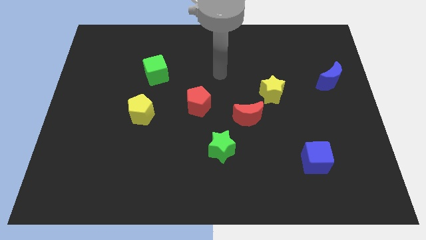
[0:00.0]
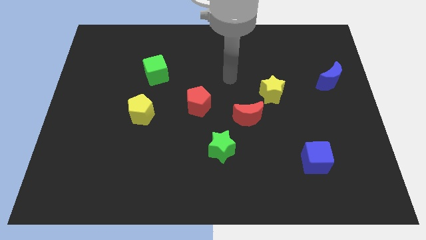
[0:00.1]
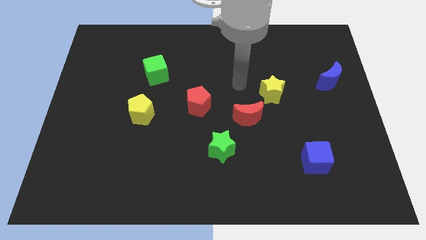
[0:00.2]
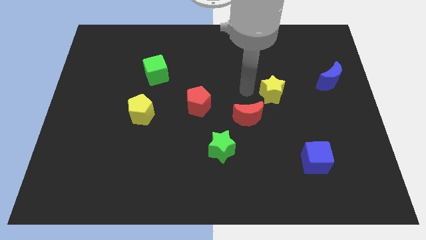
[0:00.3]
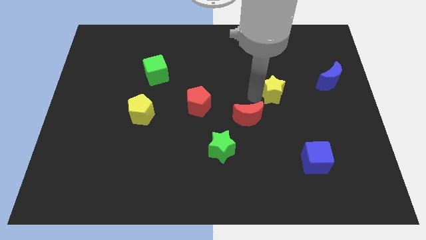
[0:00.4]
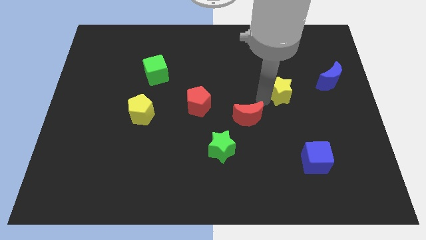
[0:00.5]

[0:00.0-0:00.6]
move the red moon away from the yellow star

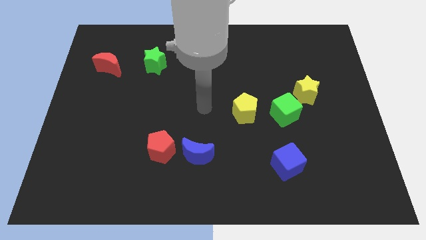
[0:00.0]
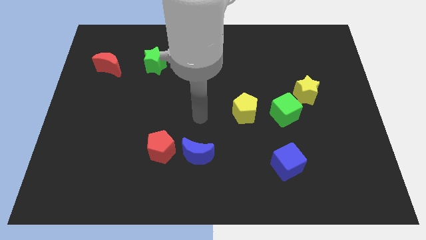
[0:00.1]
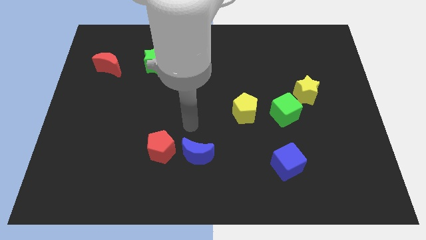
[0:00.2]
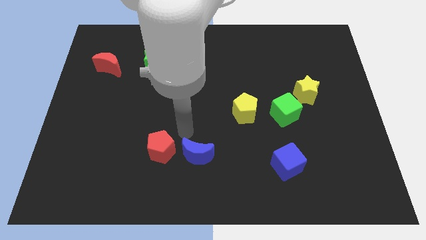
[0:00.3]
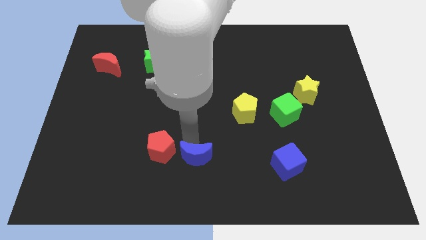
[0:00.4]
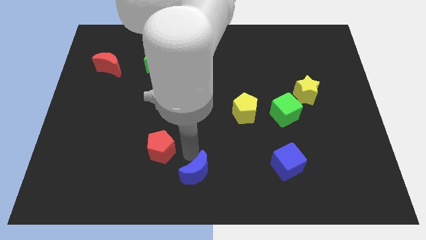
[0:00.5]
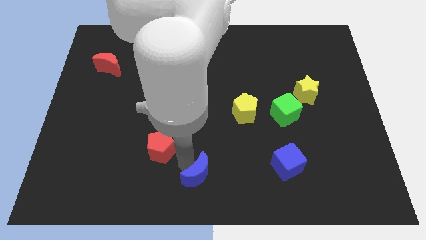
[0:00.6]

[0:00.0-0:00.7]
move the red pentagon away from the blue moon

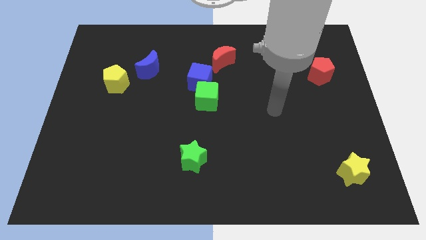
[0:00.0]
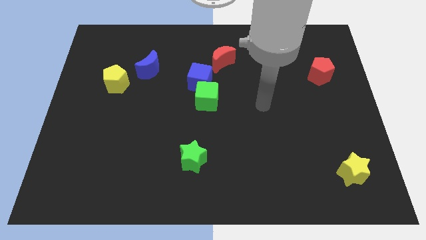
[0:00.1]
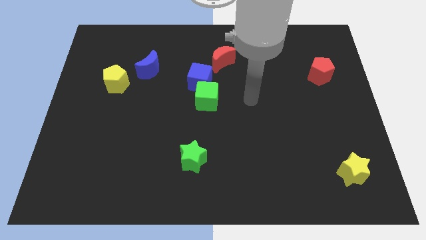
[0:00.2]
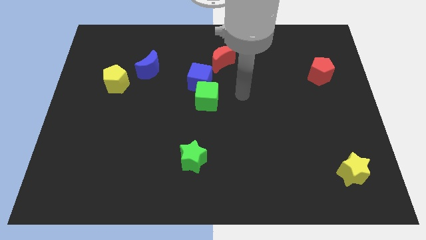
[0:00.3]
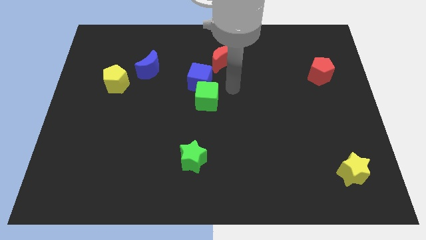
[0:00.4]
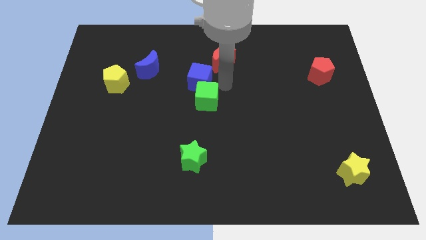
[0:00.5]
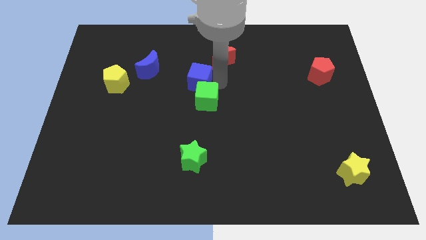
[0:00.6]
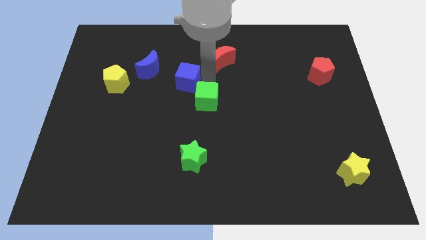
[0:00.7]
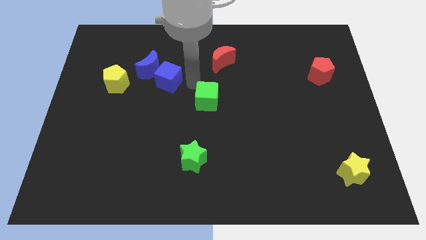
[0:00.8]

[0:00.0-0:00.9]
move the green cube away from the blue cube

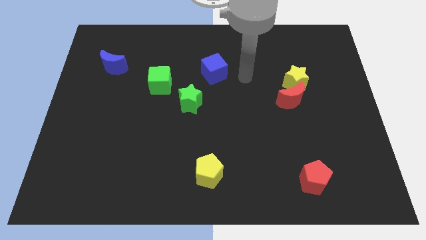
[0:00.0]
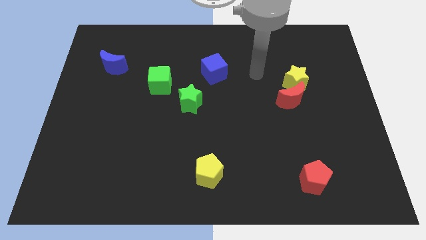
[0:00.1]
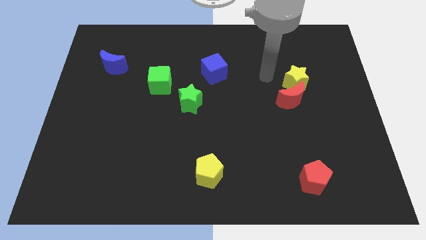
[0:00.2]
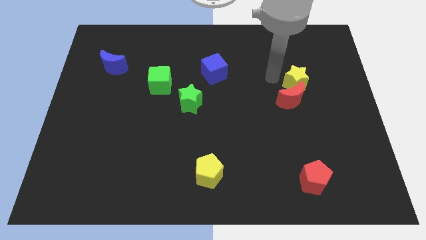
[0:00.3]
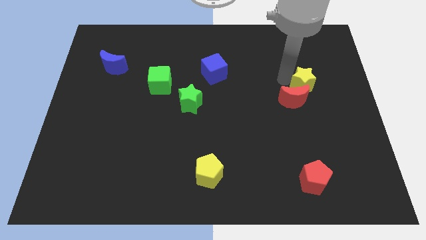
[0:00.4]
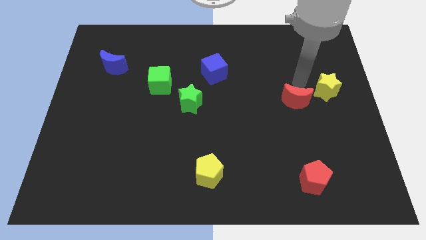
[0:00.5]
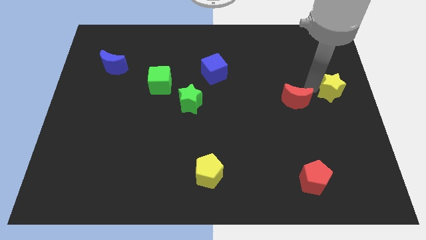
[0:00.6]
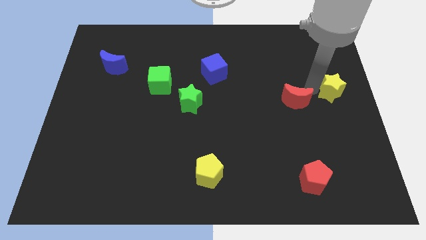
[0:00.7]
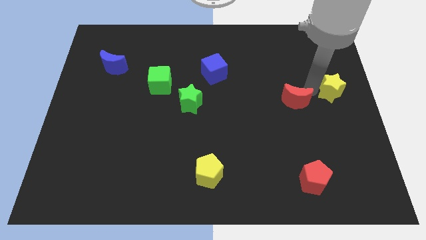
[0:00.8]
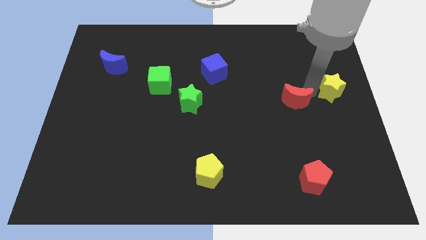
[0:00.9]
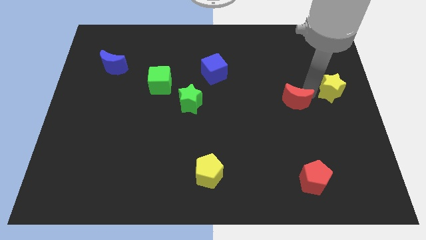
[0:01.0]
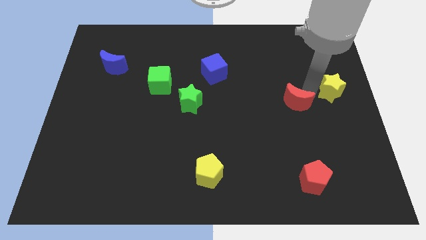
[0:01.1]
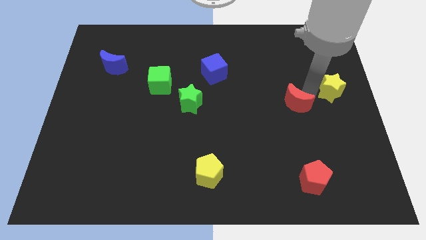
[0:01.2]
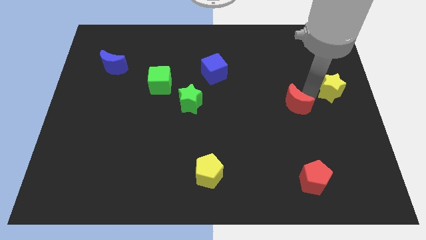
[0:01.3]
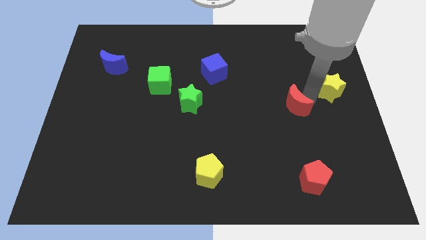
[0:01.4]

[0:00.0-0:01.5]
pull the red moon apart from the yellow star

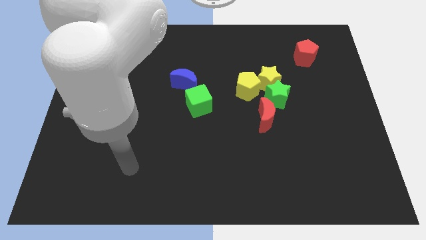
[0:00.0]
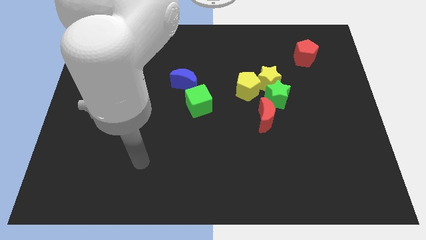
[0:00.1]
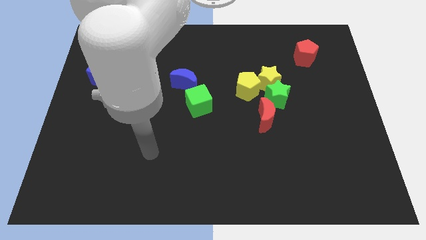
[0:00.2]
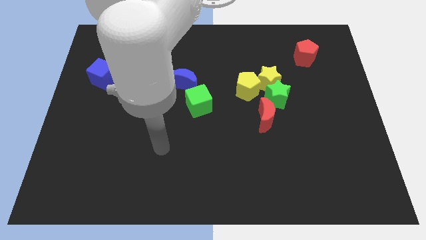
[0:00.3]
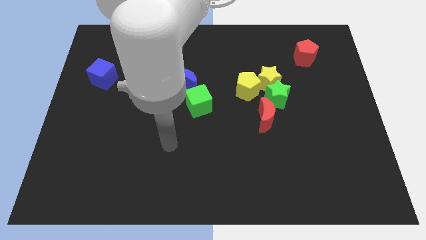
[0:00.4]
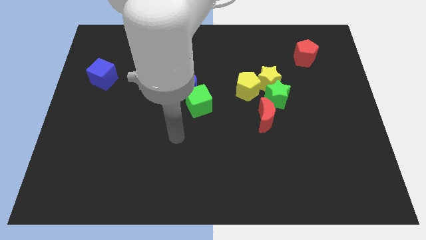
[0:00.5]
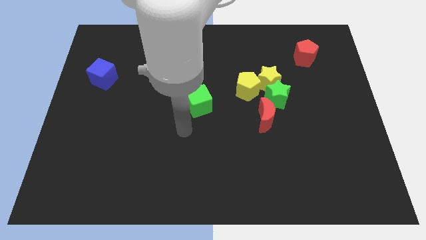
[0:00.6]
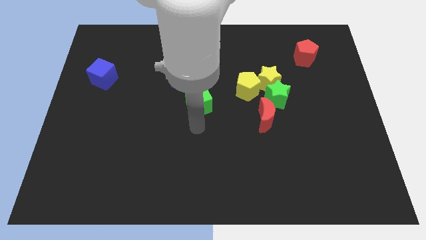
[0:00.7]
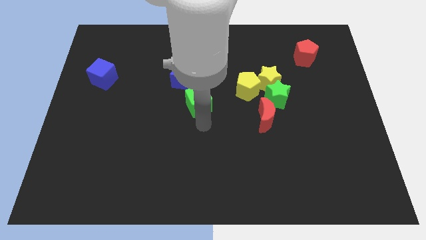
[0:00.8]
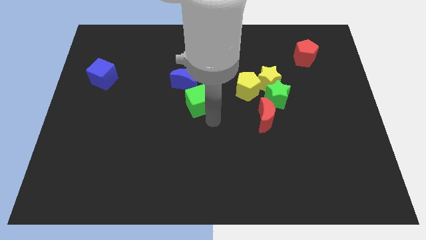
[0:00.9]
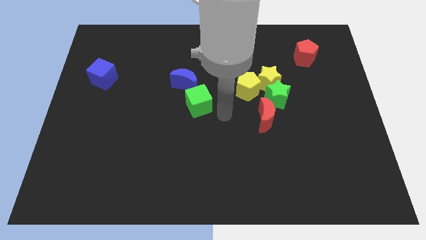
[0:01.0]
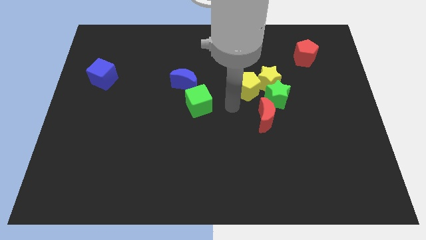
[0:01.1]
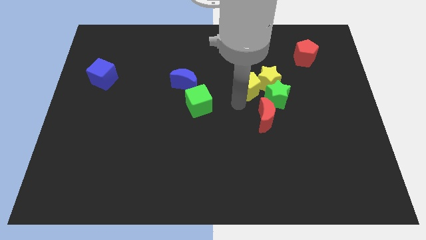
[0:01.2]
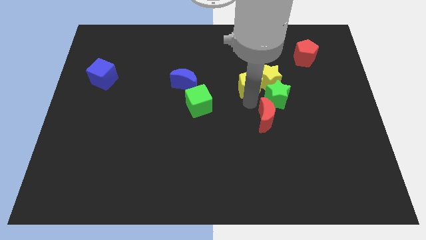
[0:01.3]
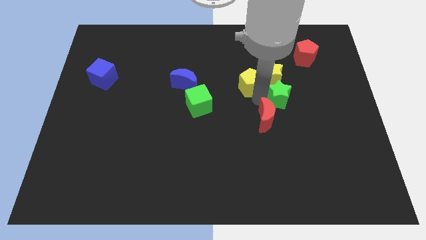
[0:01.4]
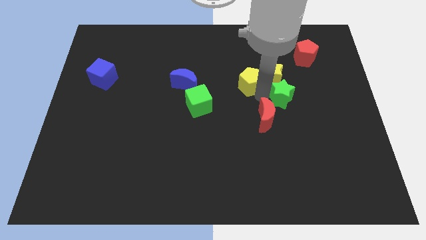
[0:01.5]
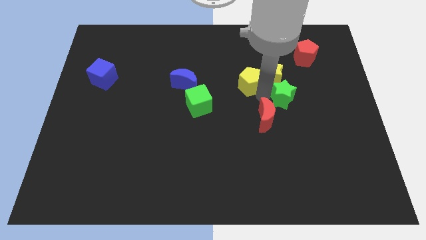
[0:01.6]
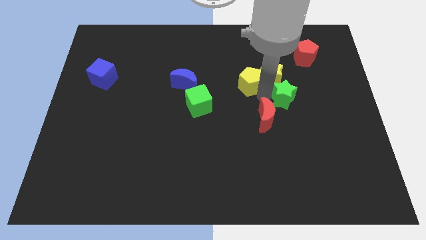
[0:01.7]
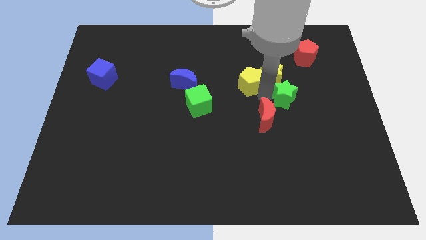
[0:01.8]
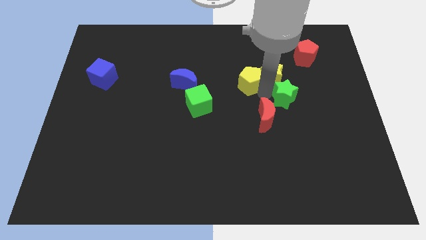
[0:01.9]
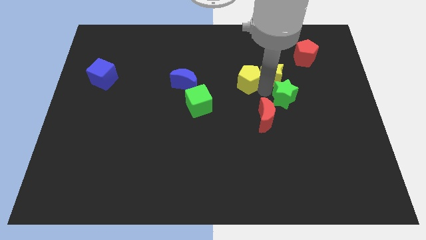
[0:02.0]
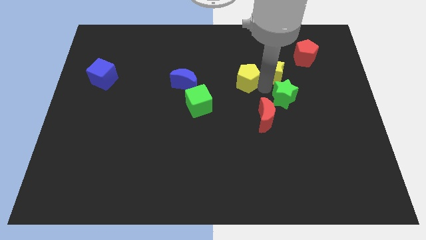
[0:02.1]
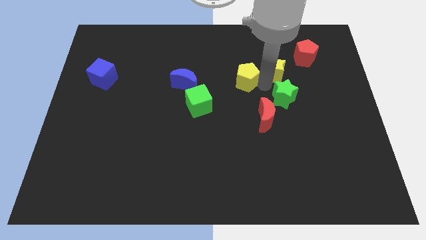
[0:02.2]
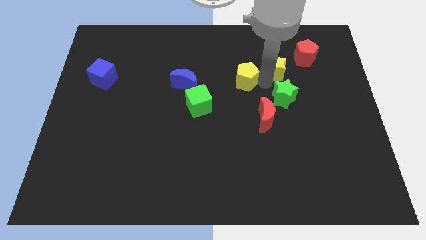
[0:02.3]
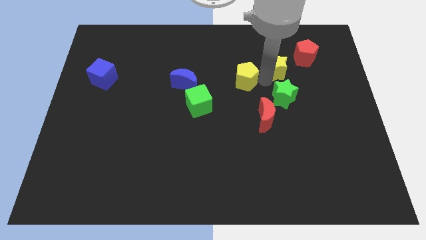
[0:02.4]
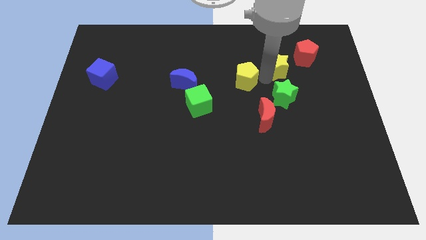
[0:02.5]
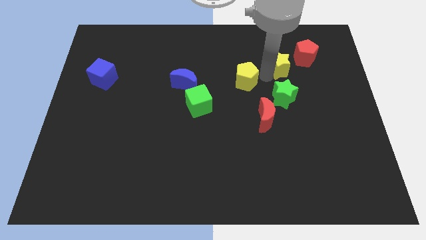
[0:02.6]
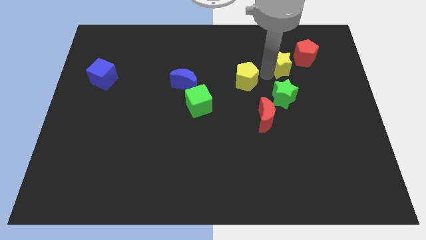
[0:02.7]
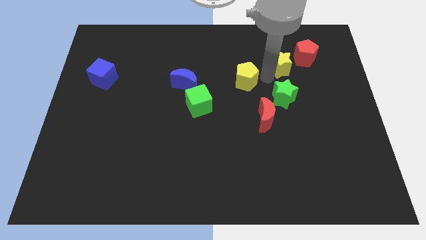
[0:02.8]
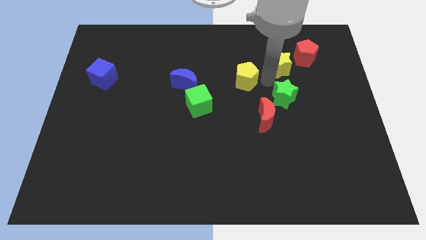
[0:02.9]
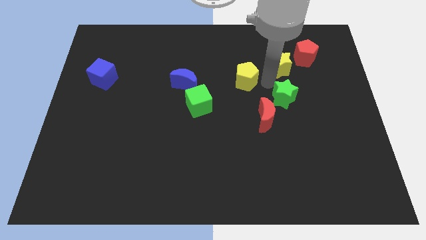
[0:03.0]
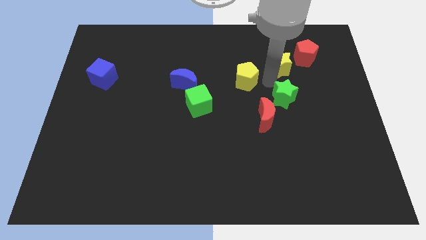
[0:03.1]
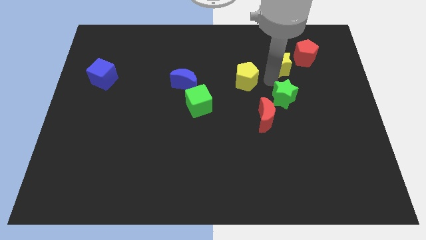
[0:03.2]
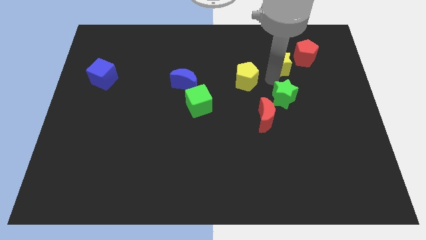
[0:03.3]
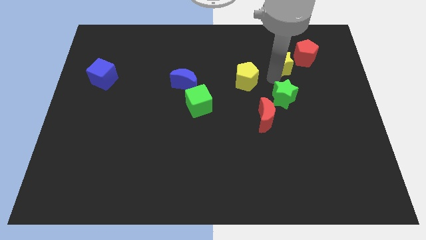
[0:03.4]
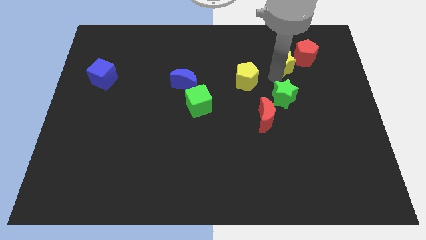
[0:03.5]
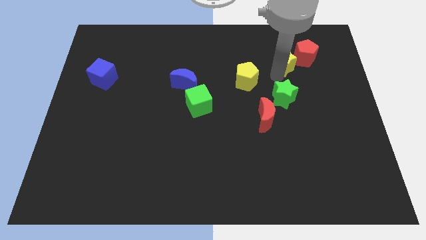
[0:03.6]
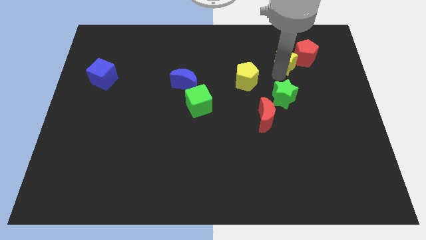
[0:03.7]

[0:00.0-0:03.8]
move the yellow star away from the green star and yellow pentagon

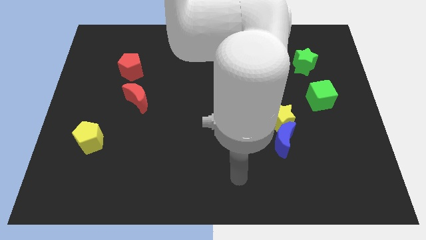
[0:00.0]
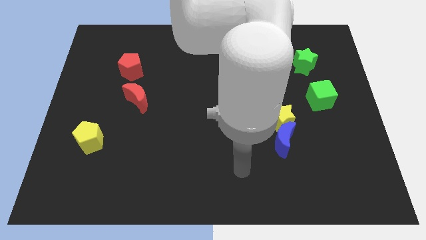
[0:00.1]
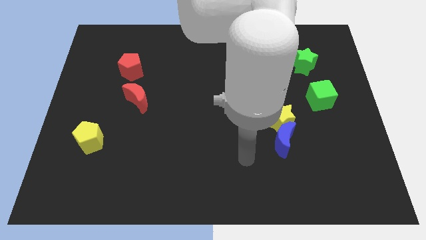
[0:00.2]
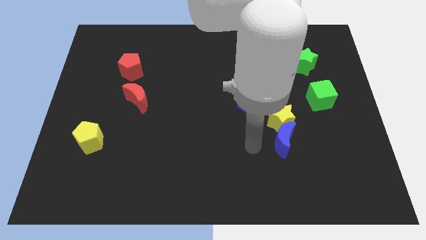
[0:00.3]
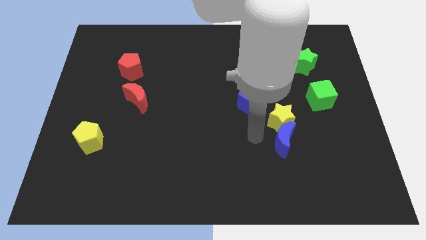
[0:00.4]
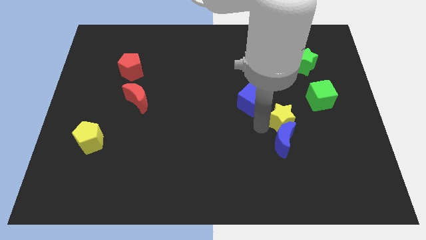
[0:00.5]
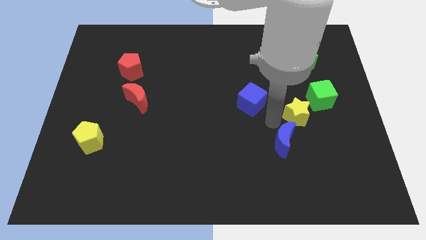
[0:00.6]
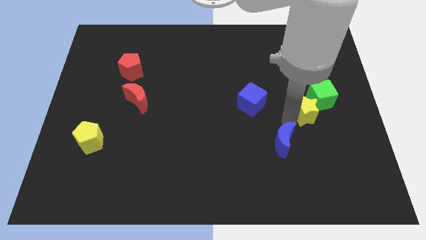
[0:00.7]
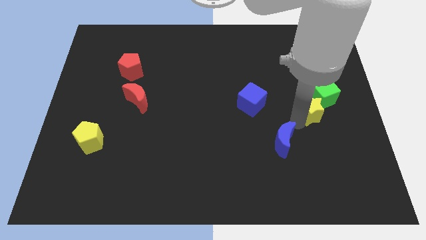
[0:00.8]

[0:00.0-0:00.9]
pull the blue moon apart from the yellow star

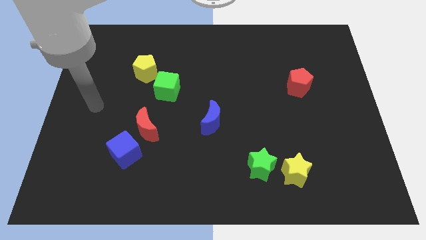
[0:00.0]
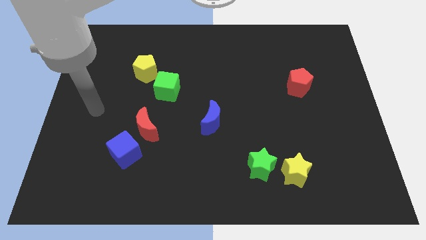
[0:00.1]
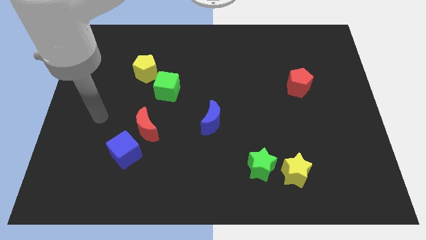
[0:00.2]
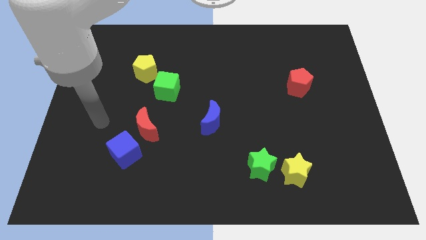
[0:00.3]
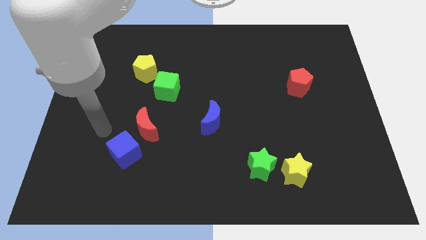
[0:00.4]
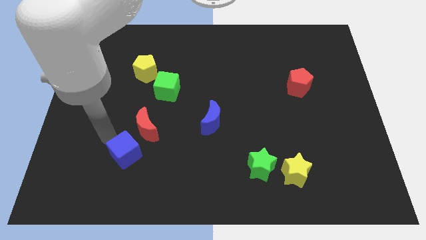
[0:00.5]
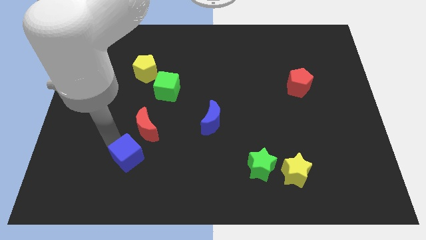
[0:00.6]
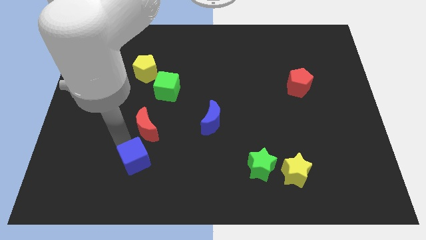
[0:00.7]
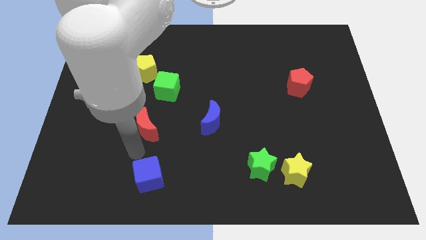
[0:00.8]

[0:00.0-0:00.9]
pull the red moon apart from the blue cube
